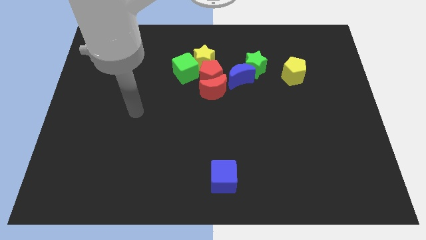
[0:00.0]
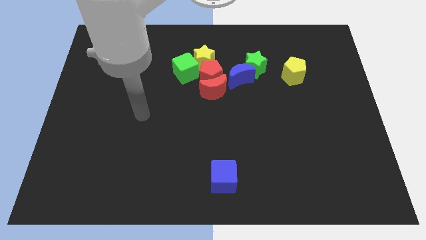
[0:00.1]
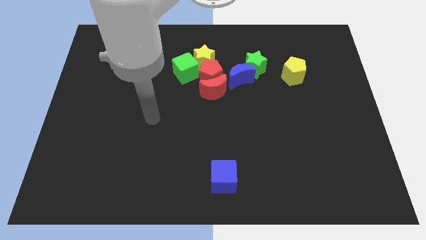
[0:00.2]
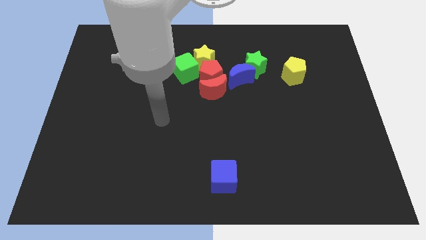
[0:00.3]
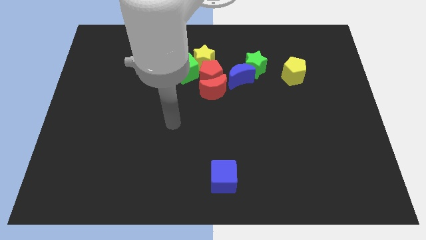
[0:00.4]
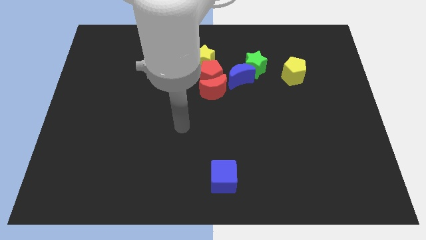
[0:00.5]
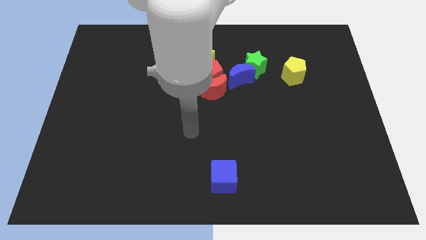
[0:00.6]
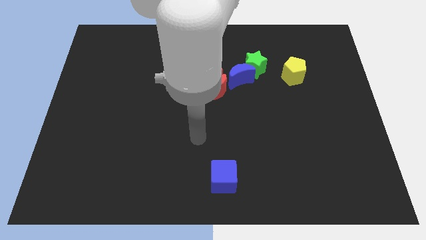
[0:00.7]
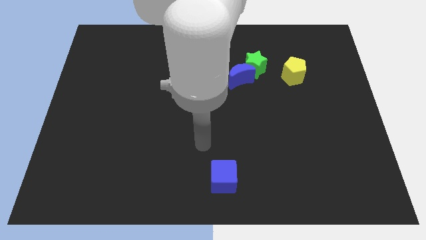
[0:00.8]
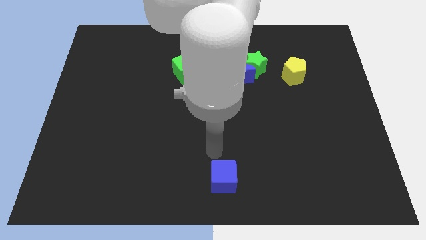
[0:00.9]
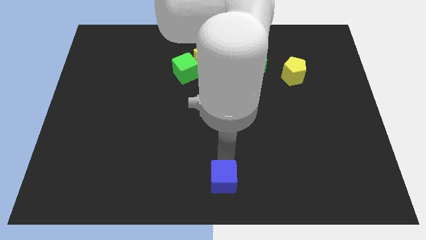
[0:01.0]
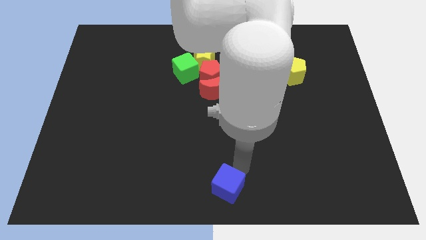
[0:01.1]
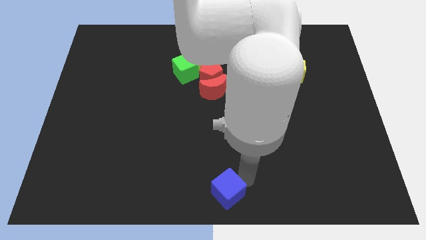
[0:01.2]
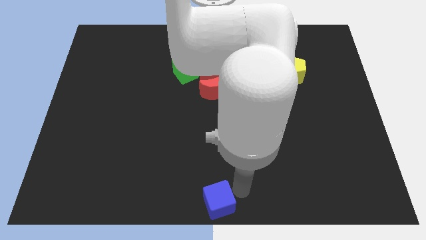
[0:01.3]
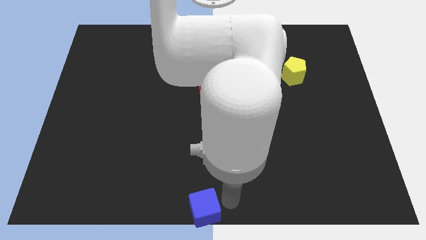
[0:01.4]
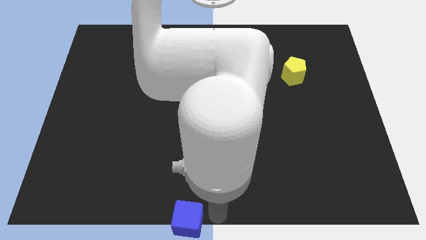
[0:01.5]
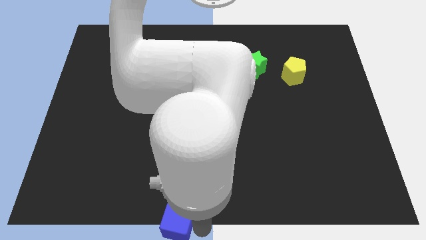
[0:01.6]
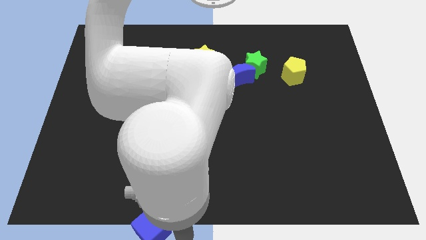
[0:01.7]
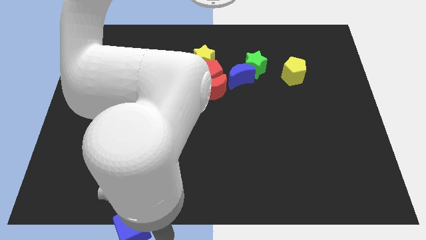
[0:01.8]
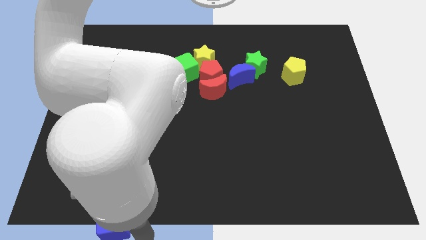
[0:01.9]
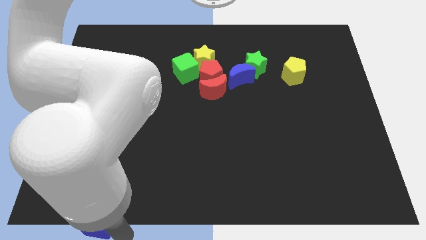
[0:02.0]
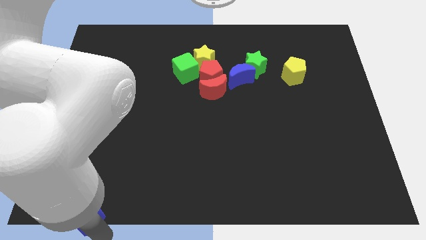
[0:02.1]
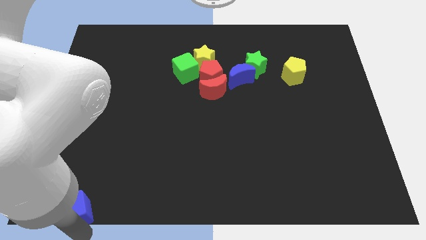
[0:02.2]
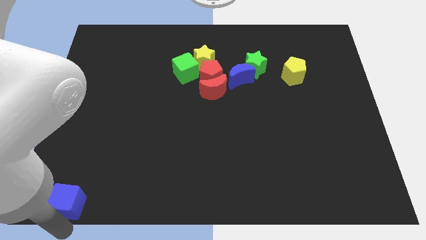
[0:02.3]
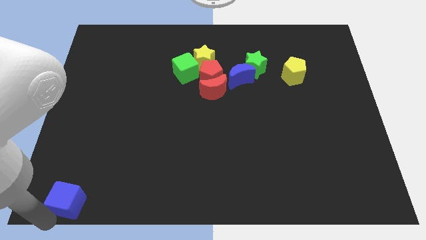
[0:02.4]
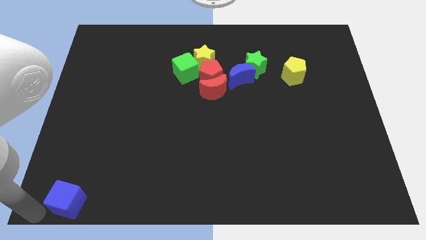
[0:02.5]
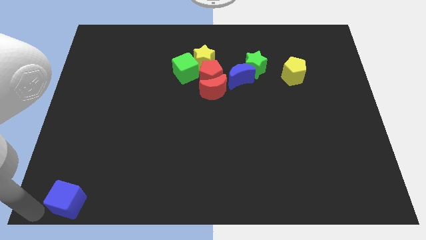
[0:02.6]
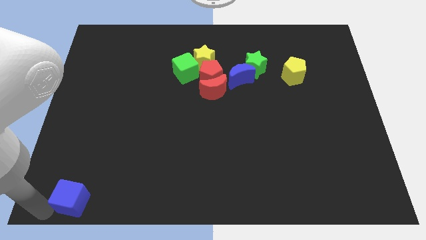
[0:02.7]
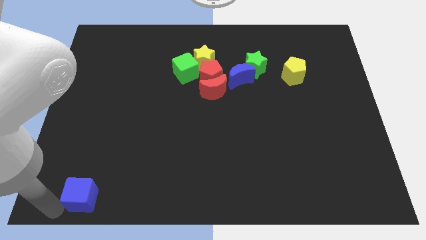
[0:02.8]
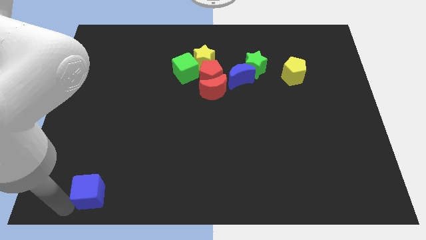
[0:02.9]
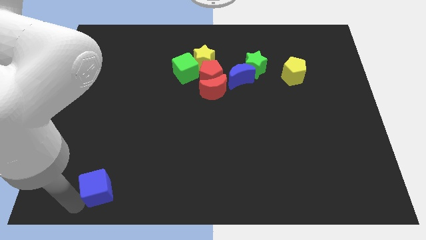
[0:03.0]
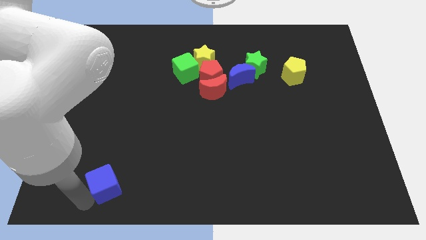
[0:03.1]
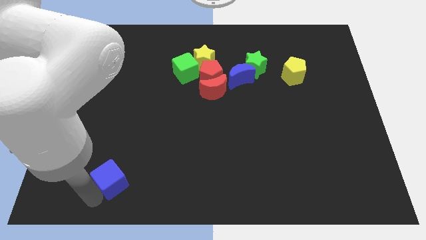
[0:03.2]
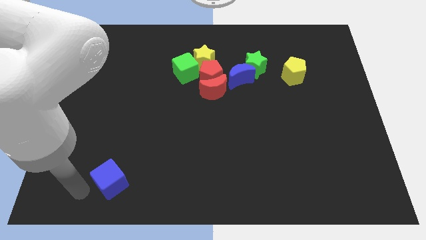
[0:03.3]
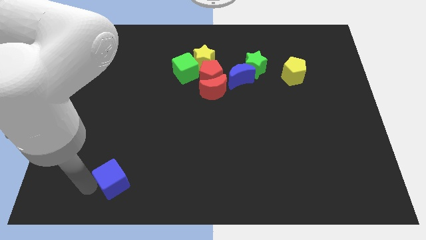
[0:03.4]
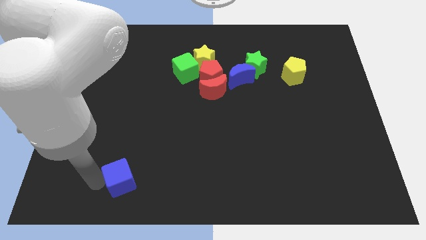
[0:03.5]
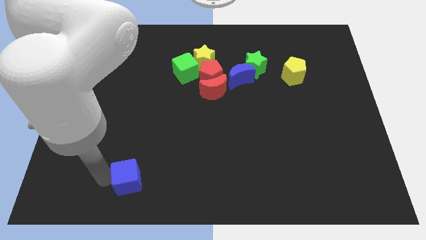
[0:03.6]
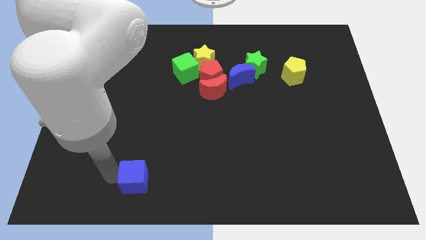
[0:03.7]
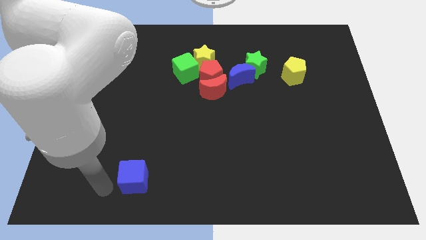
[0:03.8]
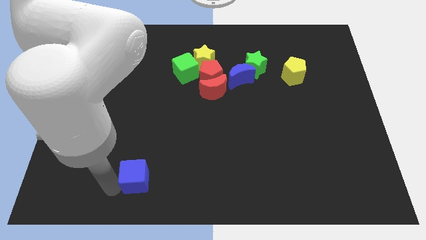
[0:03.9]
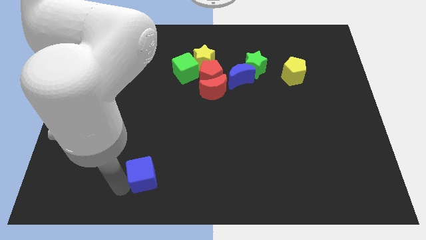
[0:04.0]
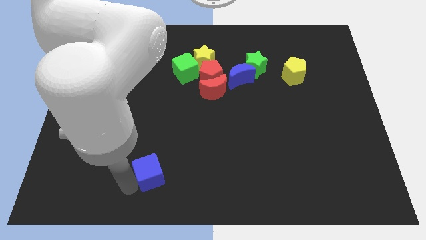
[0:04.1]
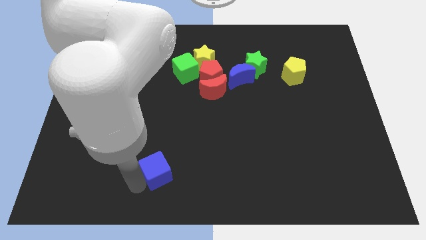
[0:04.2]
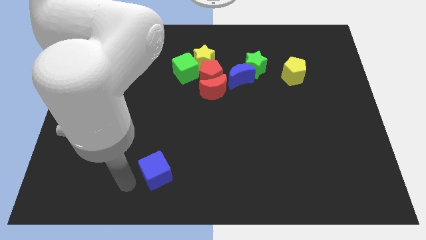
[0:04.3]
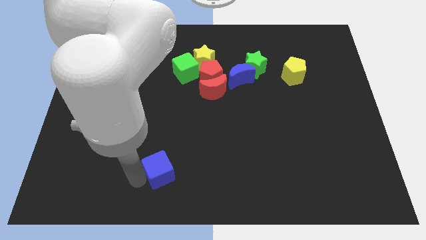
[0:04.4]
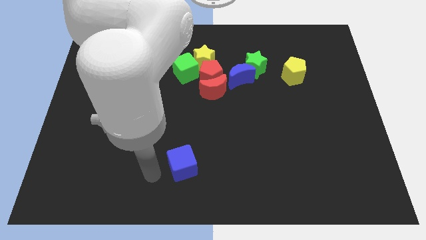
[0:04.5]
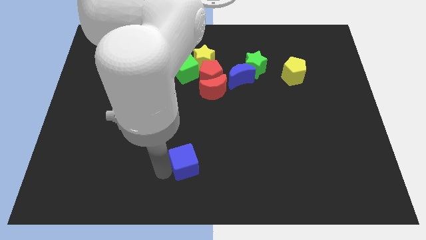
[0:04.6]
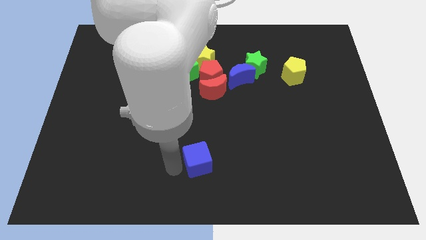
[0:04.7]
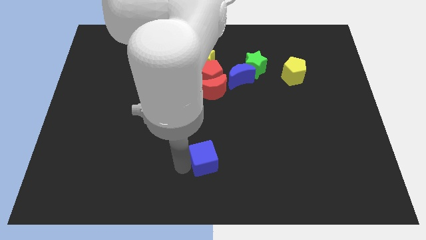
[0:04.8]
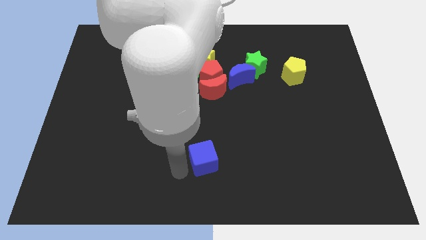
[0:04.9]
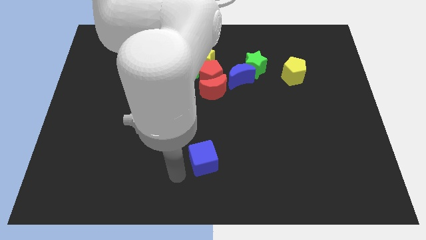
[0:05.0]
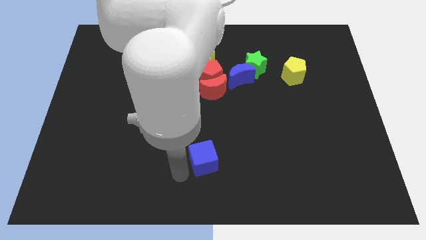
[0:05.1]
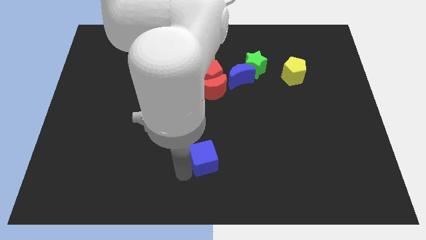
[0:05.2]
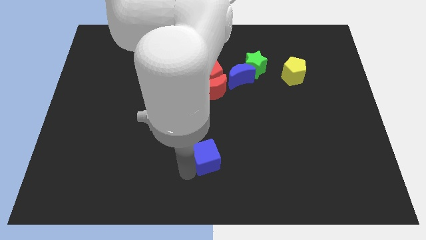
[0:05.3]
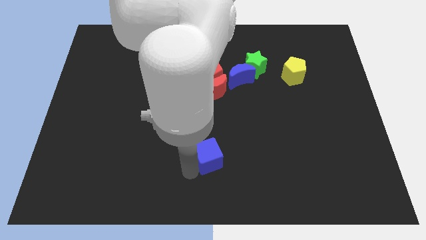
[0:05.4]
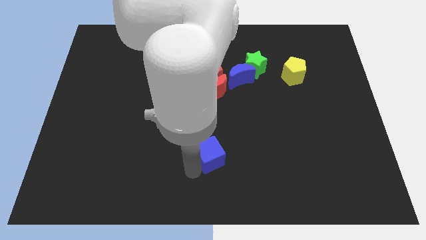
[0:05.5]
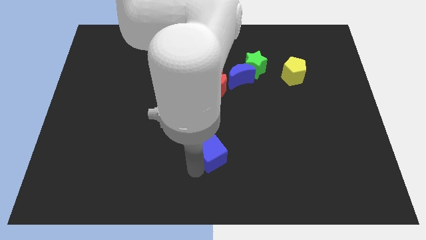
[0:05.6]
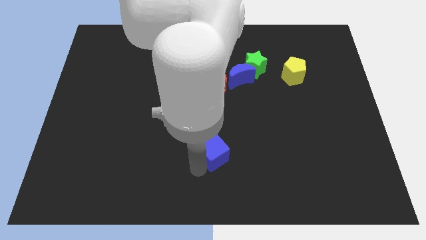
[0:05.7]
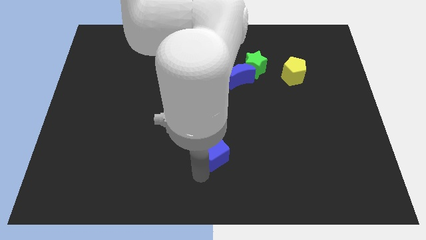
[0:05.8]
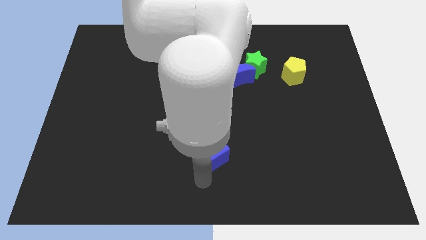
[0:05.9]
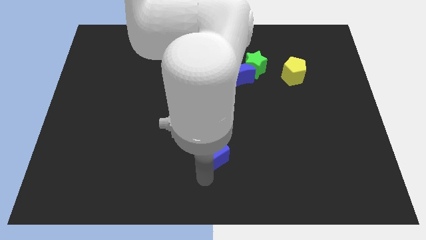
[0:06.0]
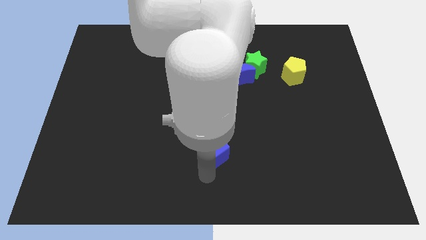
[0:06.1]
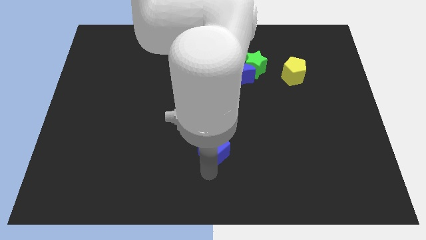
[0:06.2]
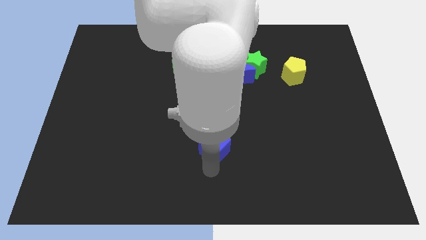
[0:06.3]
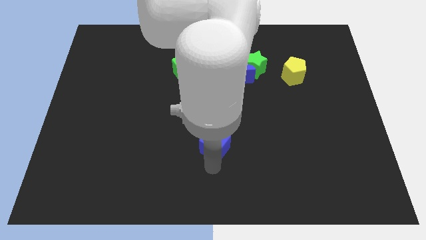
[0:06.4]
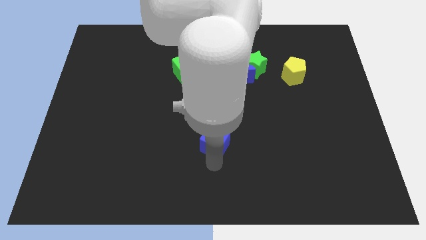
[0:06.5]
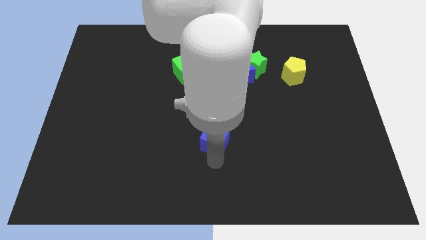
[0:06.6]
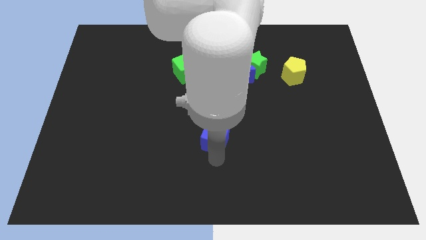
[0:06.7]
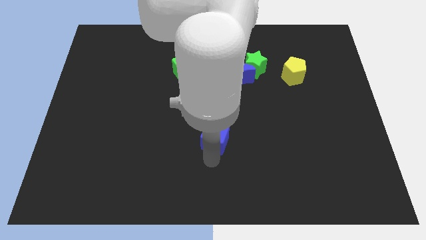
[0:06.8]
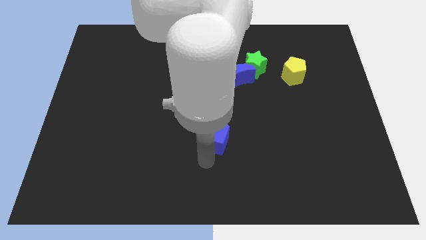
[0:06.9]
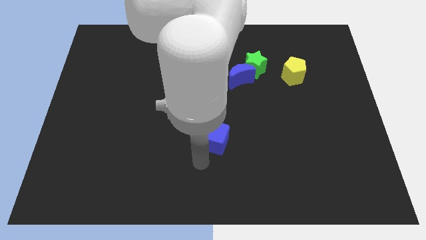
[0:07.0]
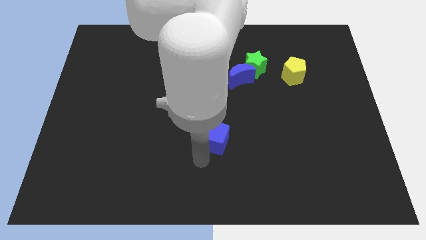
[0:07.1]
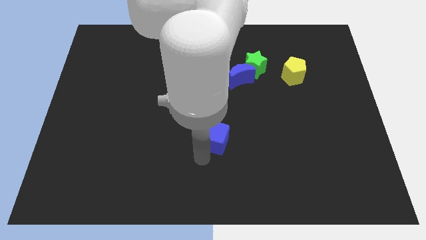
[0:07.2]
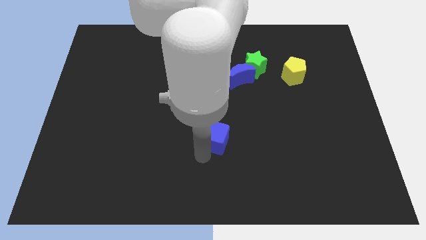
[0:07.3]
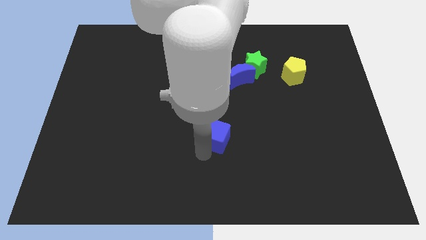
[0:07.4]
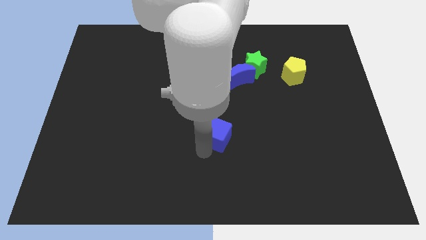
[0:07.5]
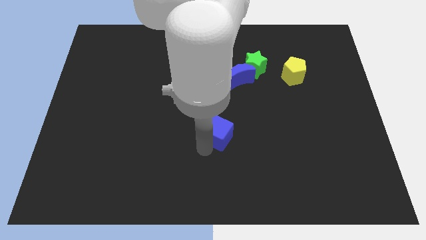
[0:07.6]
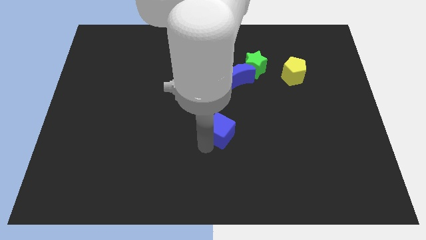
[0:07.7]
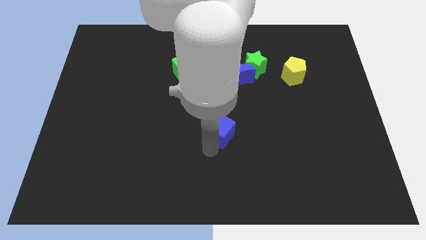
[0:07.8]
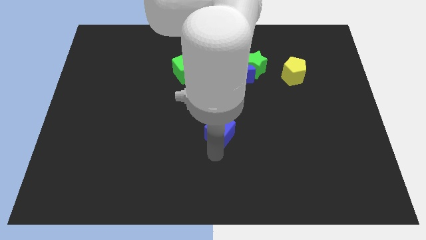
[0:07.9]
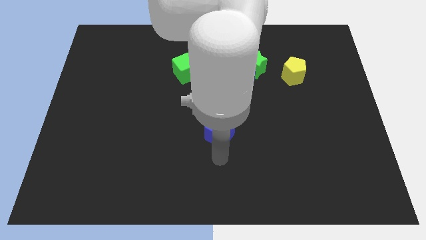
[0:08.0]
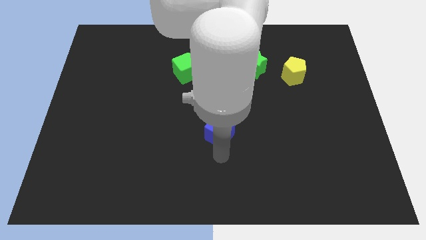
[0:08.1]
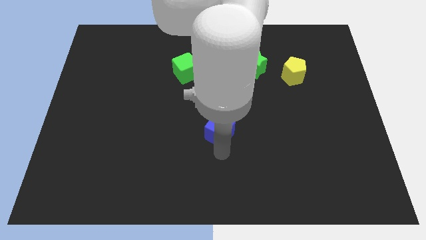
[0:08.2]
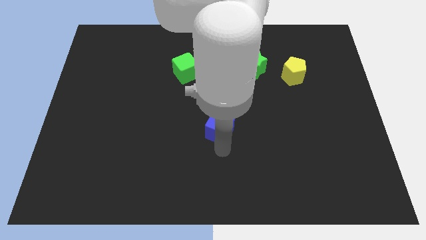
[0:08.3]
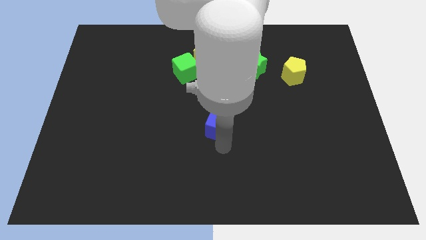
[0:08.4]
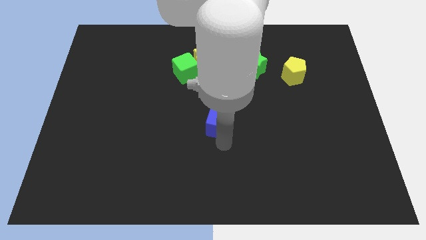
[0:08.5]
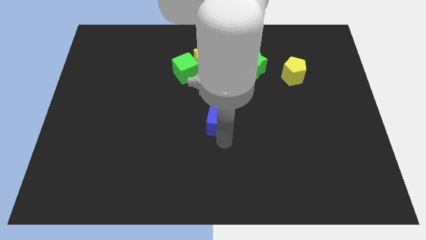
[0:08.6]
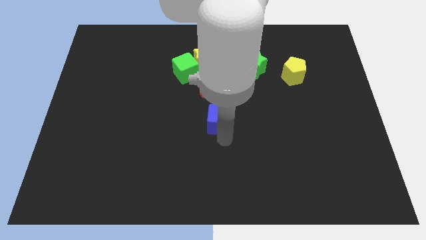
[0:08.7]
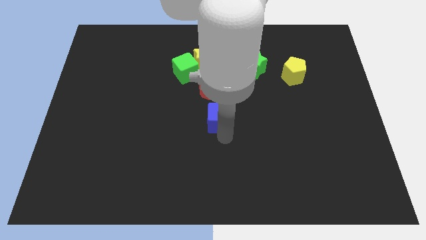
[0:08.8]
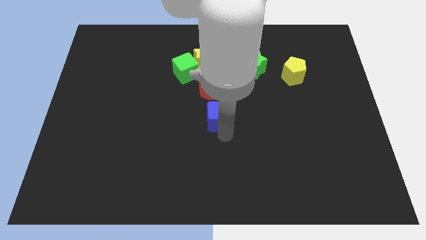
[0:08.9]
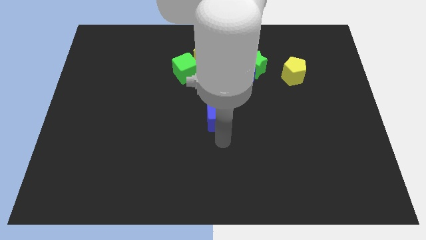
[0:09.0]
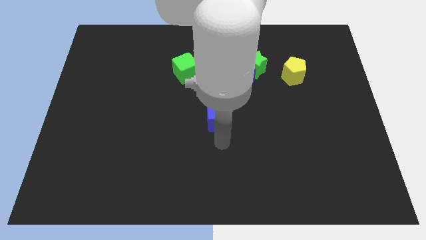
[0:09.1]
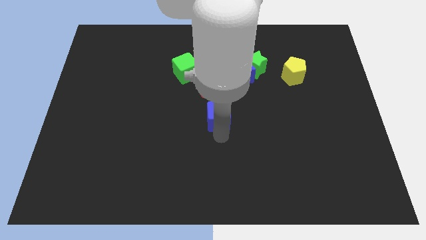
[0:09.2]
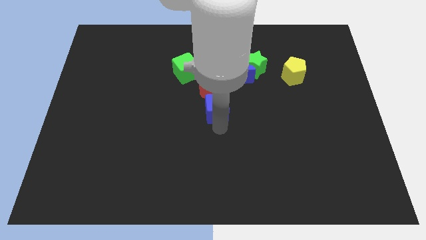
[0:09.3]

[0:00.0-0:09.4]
move the blue cube to the red moon
